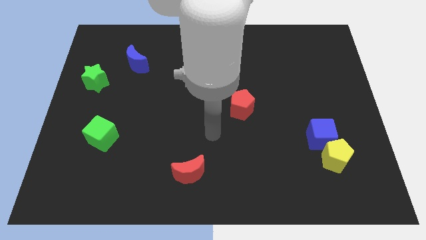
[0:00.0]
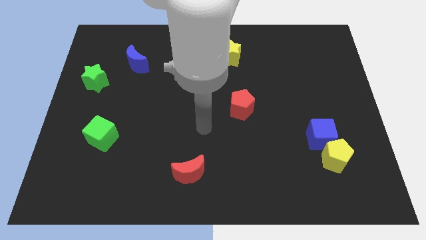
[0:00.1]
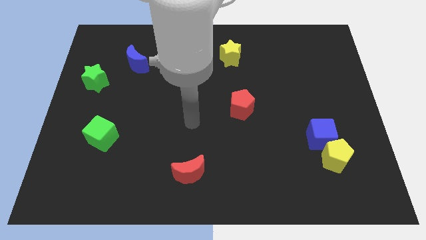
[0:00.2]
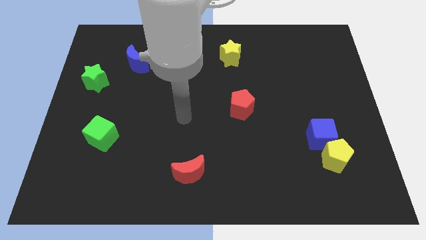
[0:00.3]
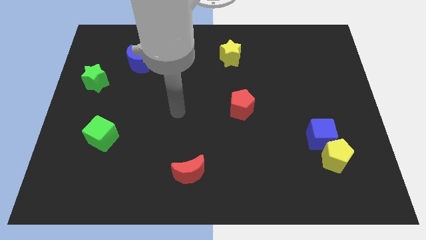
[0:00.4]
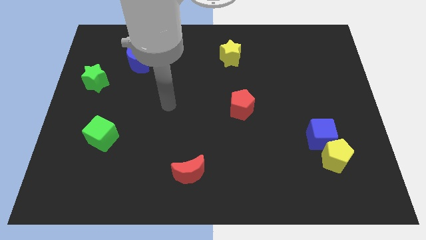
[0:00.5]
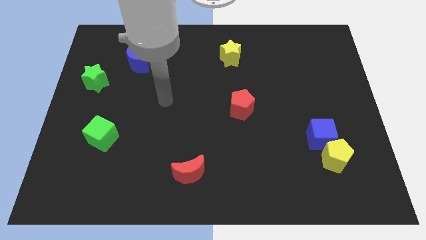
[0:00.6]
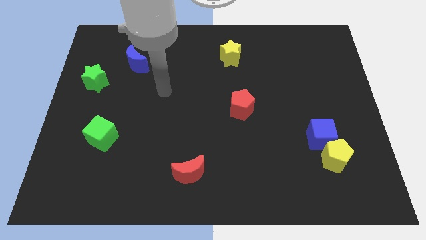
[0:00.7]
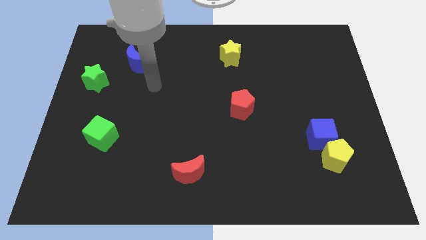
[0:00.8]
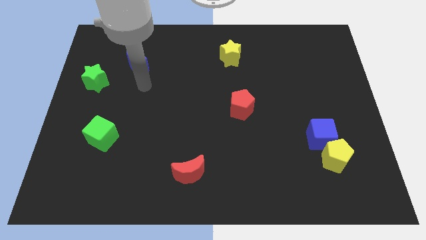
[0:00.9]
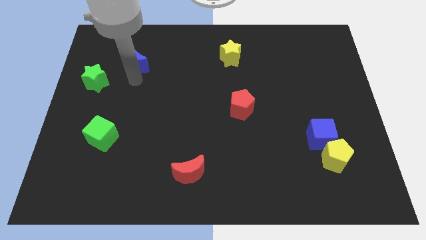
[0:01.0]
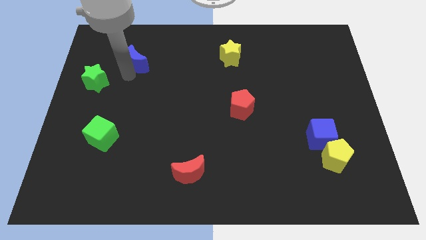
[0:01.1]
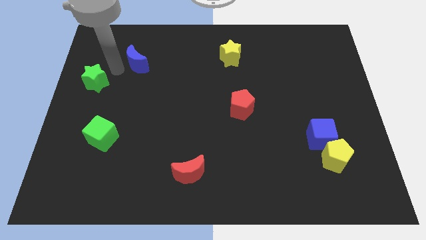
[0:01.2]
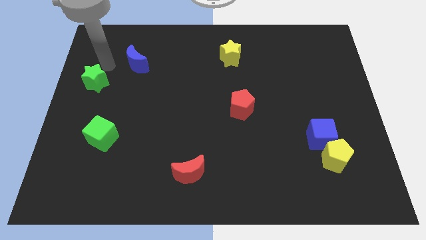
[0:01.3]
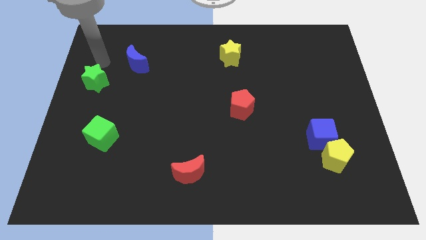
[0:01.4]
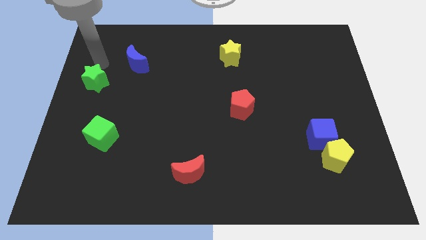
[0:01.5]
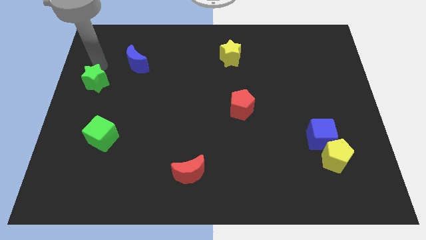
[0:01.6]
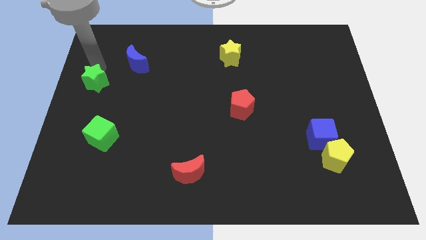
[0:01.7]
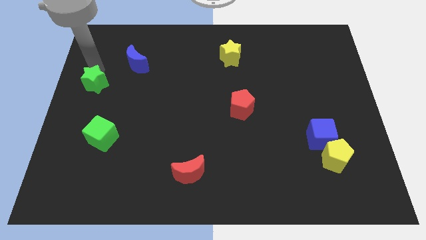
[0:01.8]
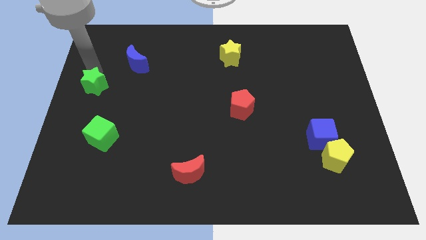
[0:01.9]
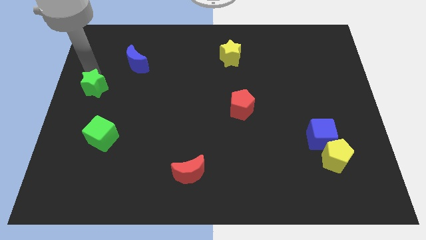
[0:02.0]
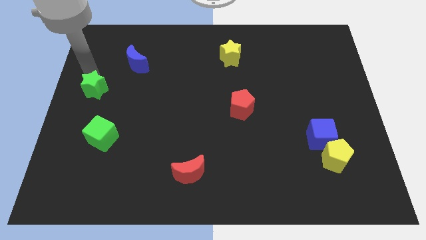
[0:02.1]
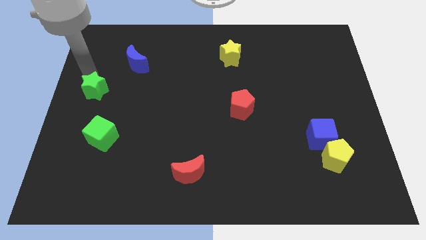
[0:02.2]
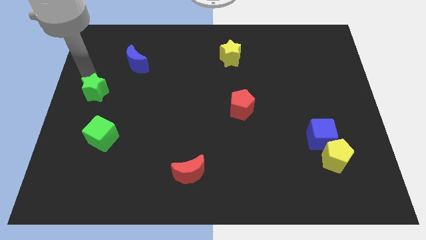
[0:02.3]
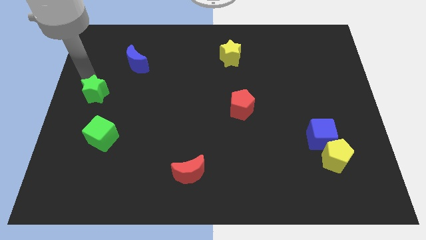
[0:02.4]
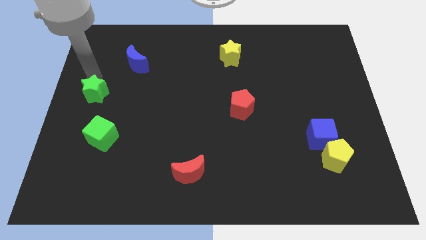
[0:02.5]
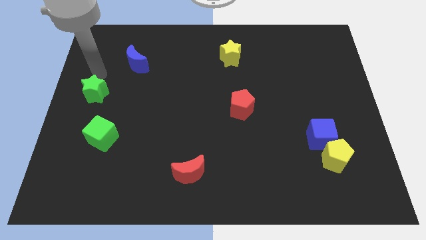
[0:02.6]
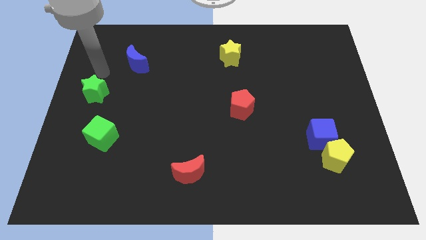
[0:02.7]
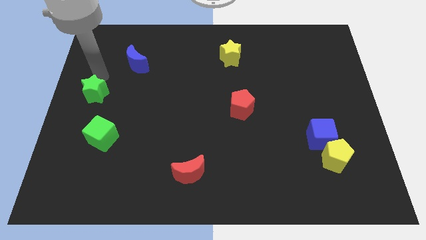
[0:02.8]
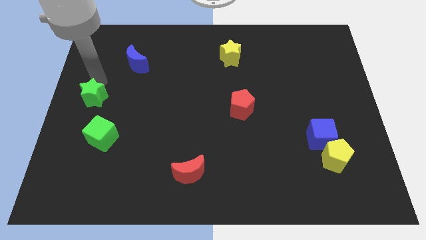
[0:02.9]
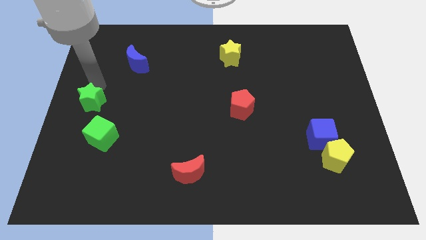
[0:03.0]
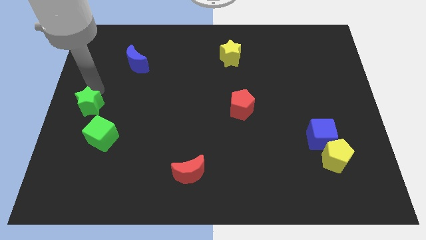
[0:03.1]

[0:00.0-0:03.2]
slightly push the green star downwards

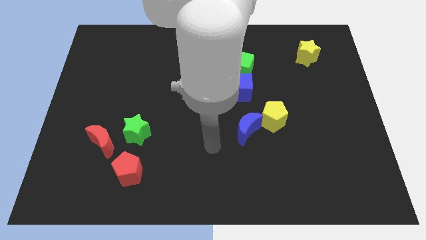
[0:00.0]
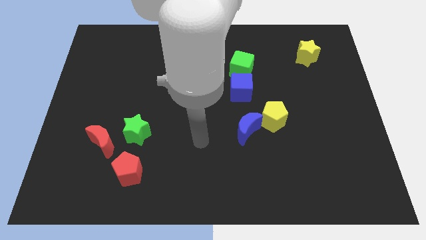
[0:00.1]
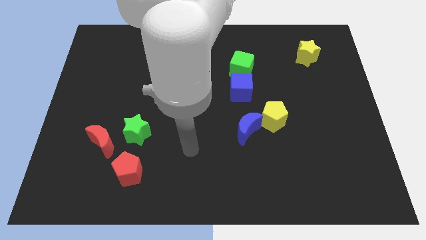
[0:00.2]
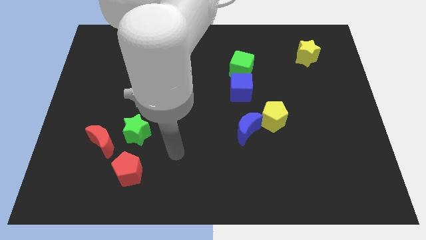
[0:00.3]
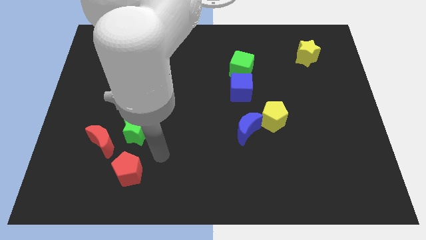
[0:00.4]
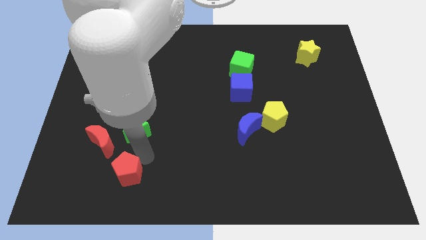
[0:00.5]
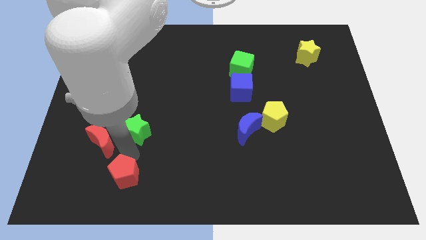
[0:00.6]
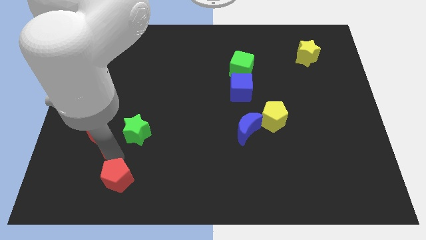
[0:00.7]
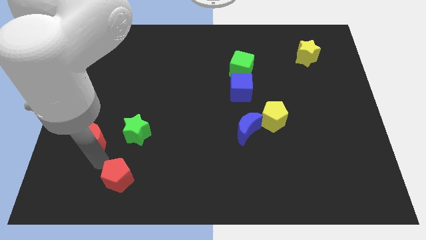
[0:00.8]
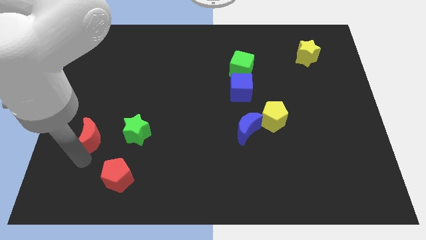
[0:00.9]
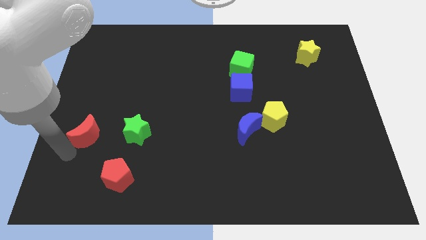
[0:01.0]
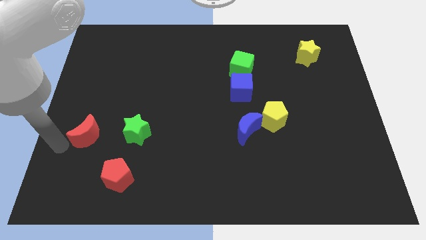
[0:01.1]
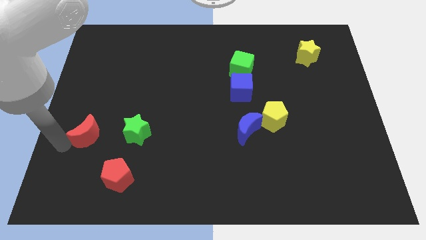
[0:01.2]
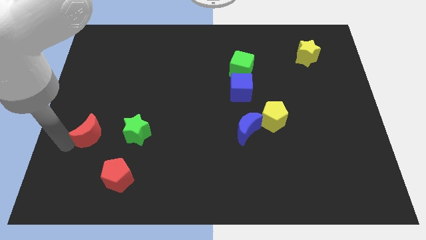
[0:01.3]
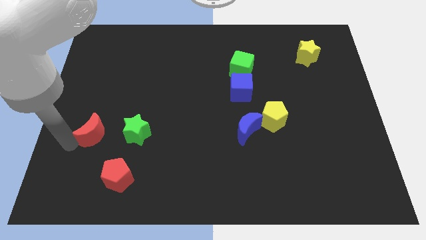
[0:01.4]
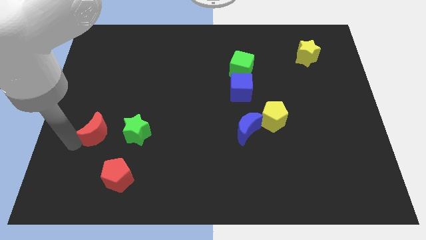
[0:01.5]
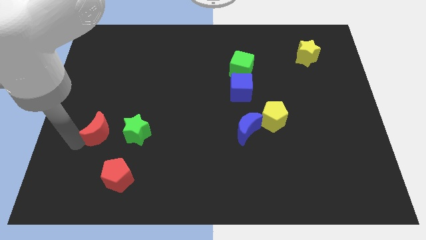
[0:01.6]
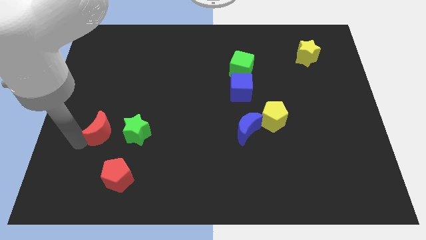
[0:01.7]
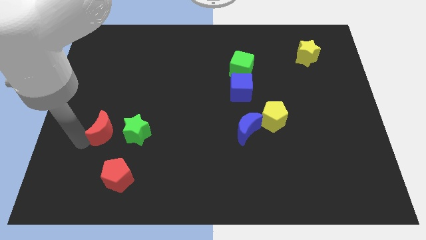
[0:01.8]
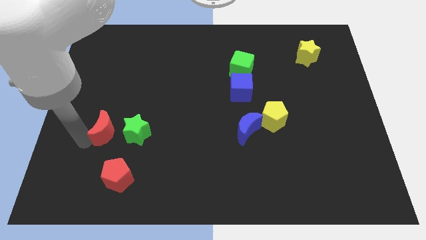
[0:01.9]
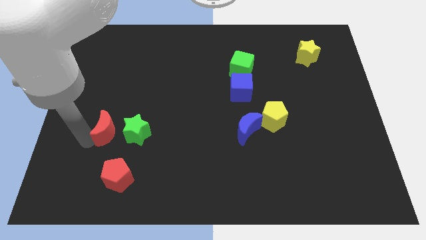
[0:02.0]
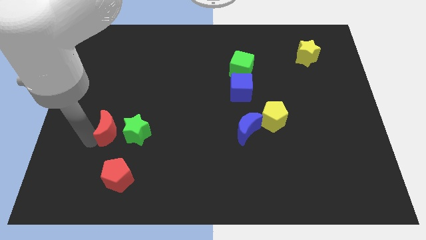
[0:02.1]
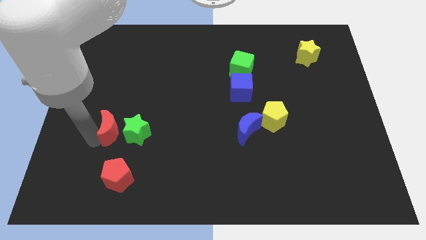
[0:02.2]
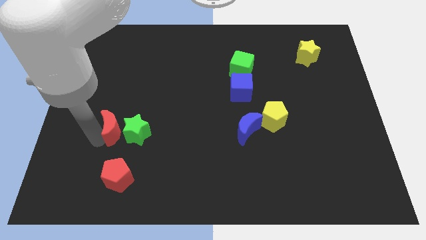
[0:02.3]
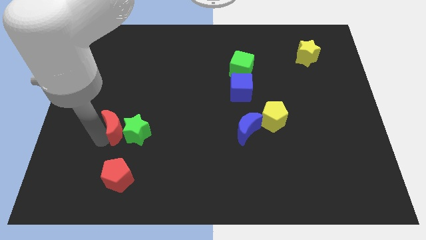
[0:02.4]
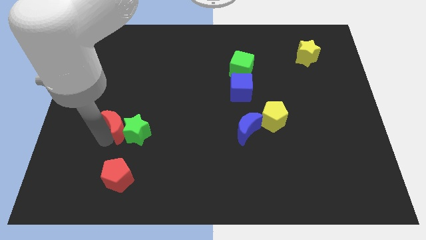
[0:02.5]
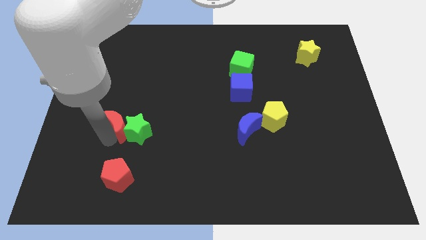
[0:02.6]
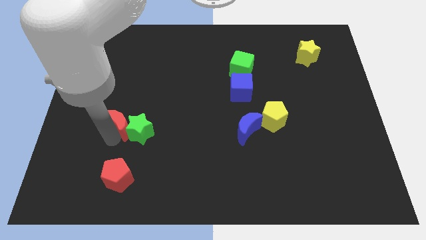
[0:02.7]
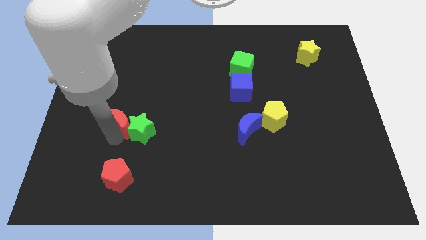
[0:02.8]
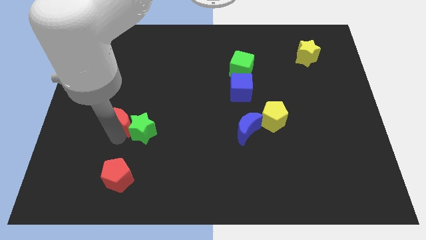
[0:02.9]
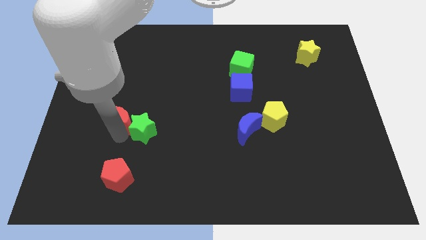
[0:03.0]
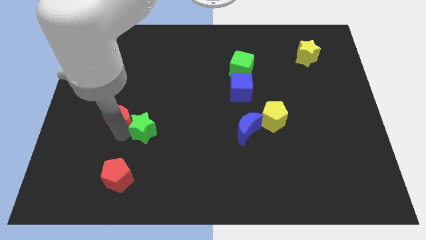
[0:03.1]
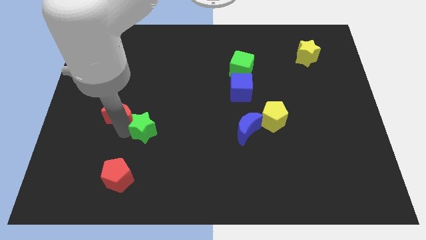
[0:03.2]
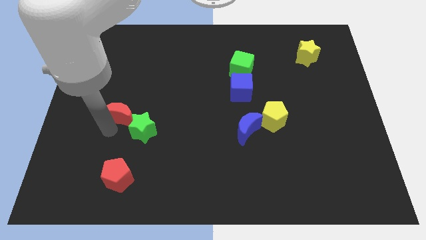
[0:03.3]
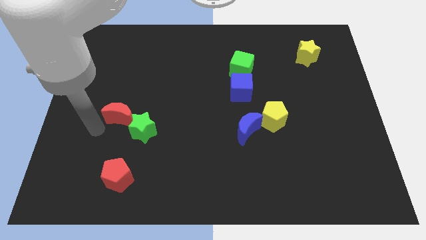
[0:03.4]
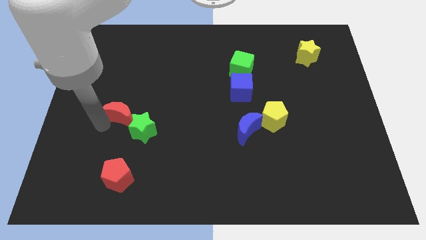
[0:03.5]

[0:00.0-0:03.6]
slightly slide the red moon up and then to the right

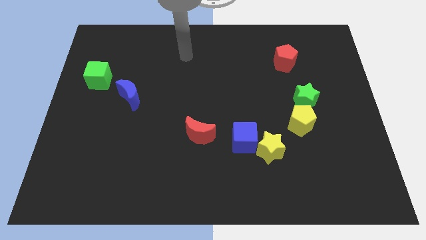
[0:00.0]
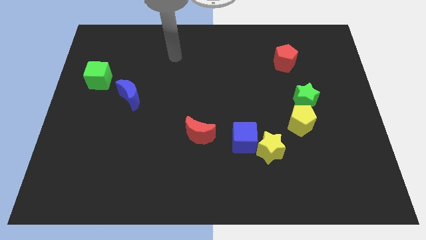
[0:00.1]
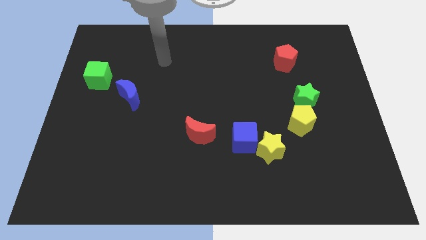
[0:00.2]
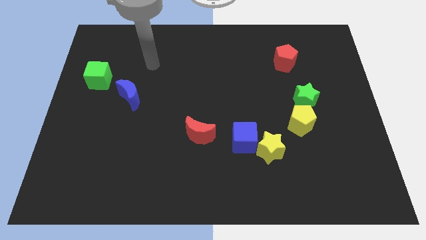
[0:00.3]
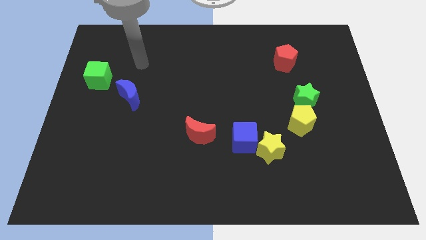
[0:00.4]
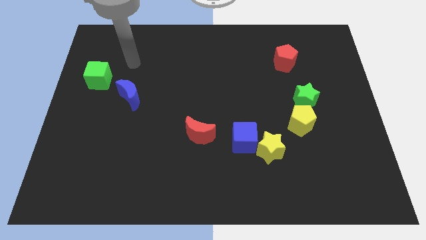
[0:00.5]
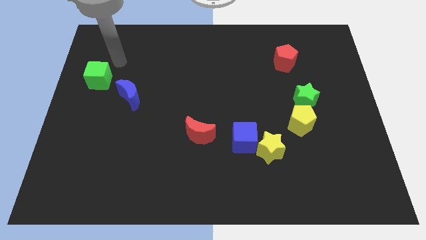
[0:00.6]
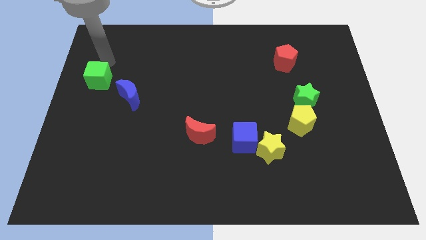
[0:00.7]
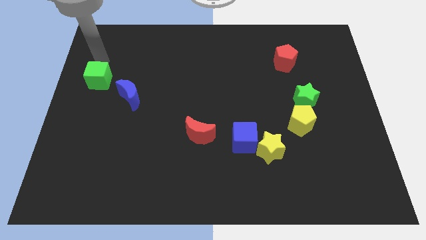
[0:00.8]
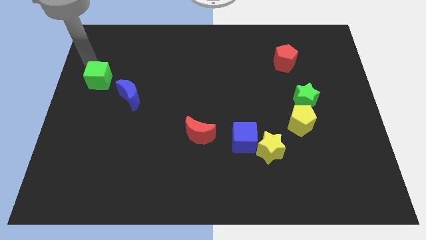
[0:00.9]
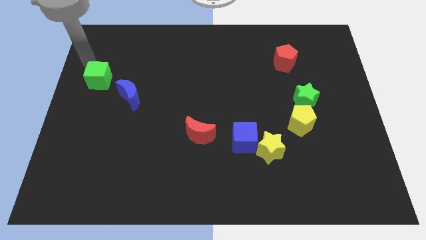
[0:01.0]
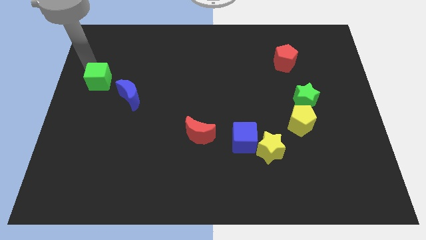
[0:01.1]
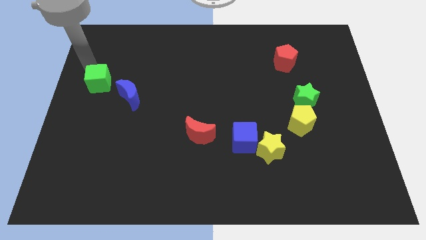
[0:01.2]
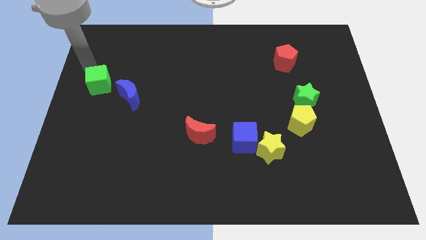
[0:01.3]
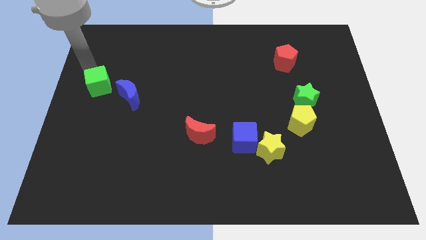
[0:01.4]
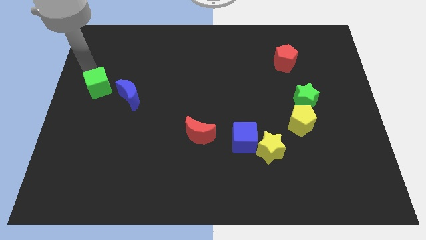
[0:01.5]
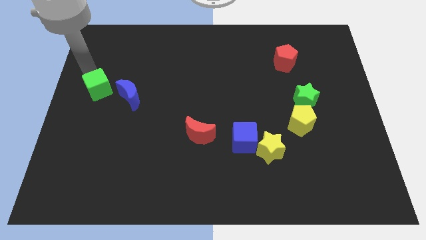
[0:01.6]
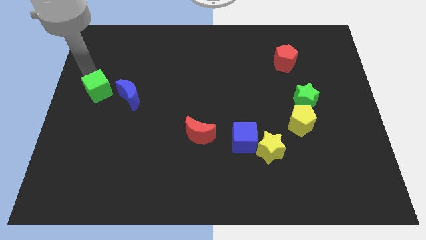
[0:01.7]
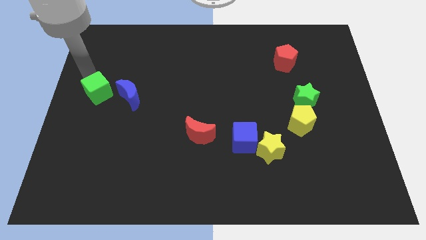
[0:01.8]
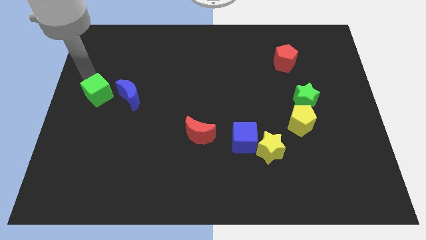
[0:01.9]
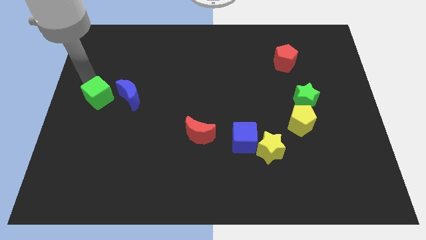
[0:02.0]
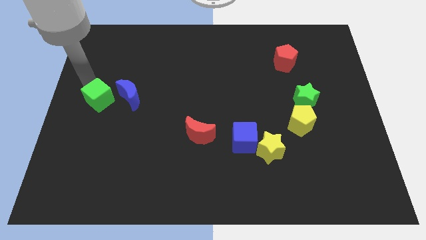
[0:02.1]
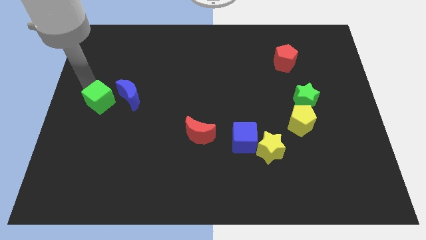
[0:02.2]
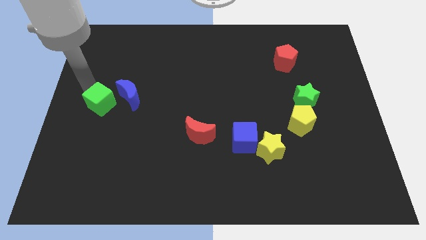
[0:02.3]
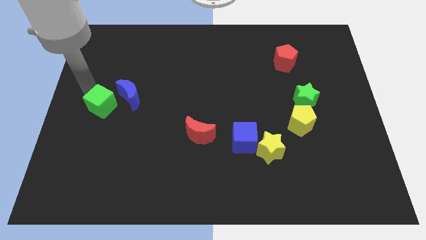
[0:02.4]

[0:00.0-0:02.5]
slightly slide the green cube diagonally downwards and right
